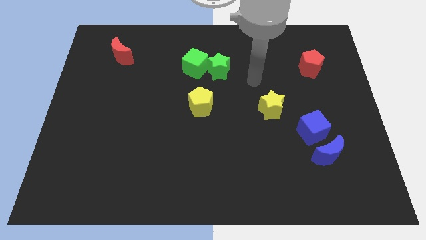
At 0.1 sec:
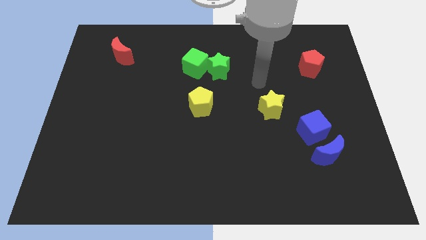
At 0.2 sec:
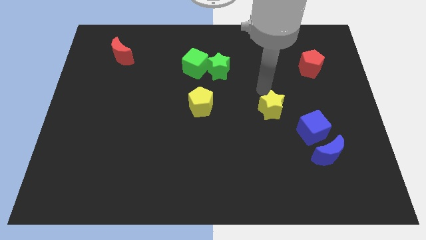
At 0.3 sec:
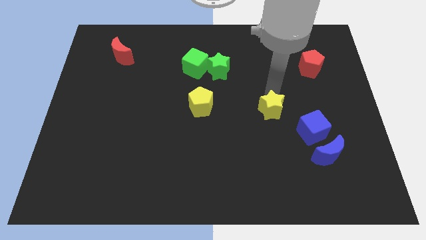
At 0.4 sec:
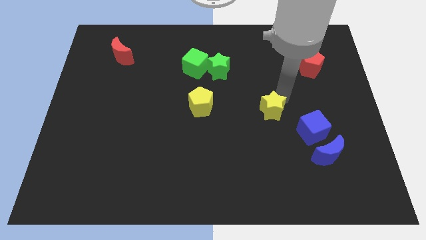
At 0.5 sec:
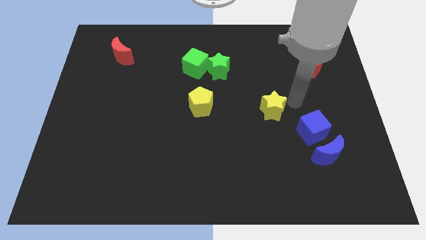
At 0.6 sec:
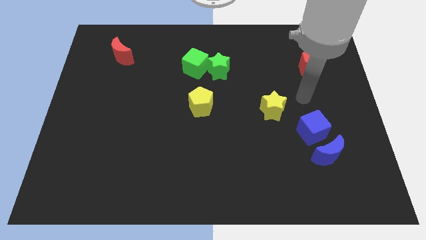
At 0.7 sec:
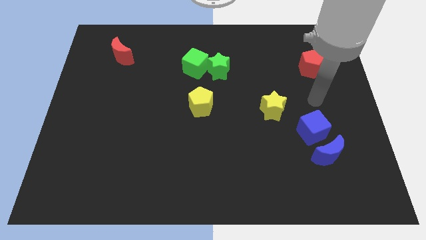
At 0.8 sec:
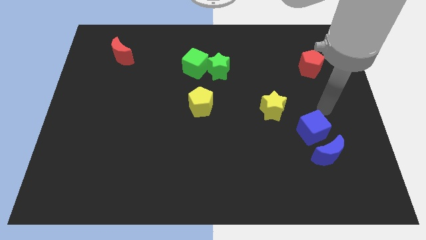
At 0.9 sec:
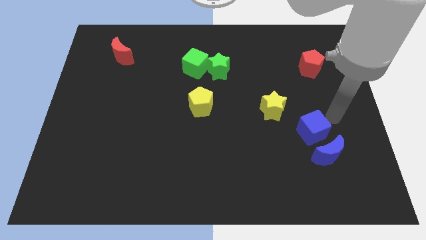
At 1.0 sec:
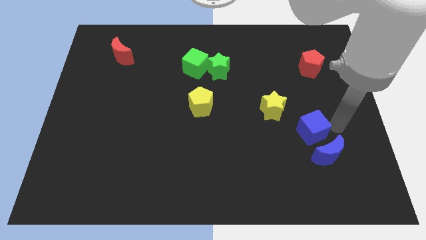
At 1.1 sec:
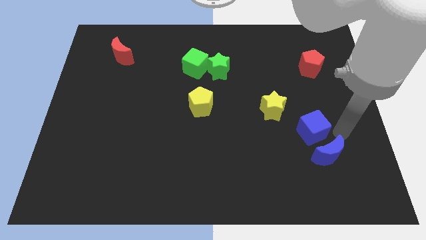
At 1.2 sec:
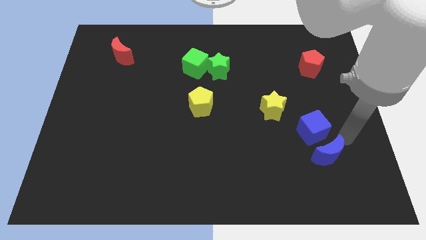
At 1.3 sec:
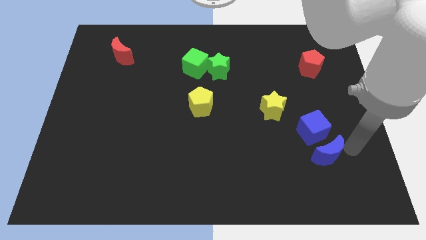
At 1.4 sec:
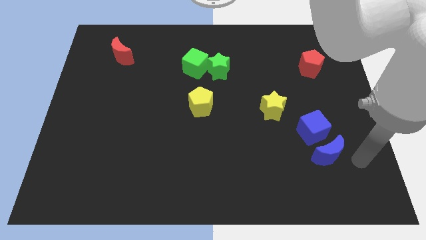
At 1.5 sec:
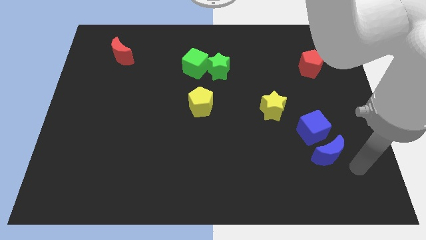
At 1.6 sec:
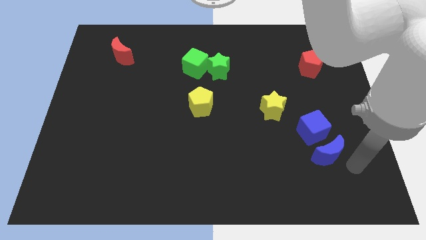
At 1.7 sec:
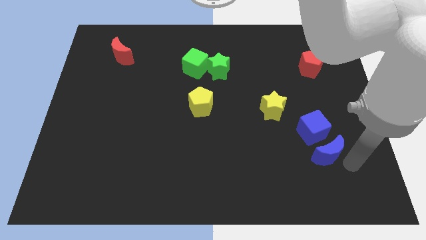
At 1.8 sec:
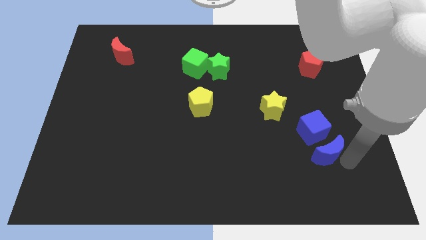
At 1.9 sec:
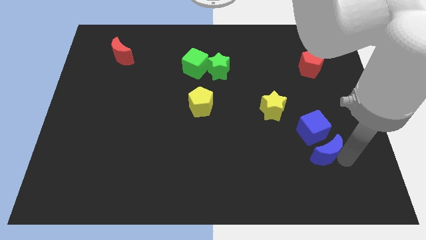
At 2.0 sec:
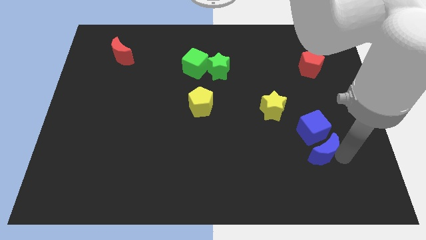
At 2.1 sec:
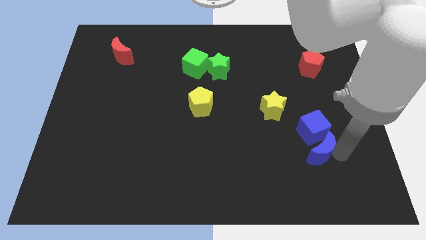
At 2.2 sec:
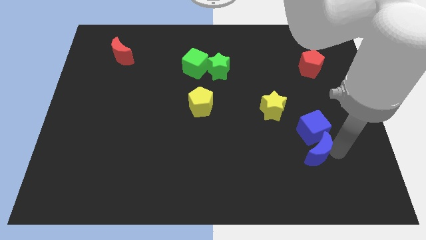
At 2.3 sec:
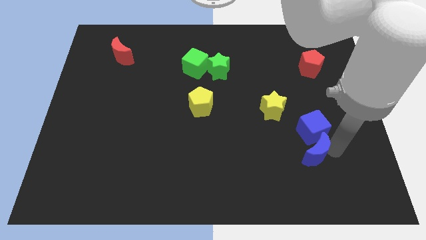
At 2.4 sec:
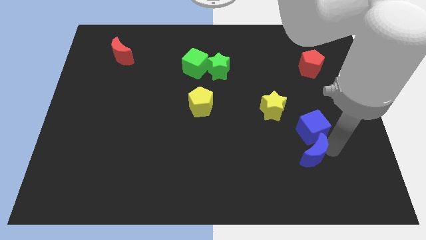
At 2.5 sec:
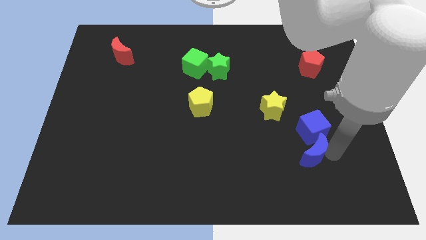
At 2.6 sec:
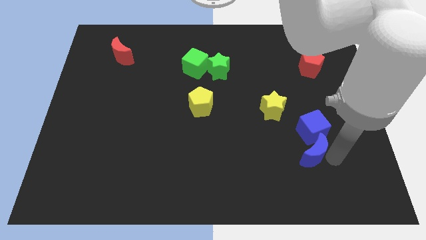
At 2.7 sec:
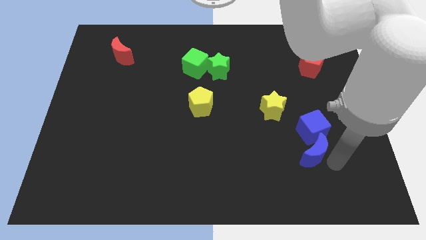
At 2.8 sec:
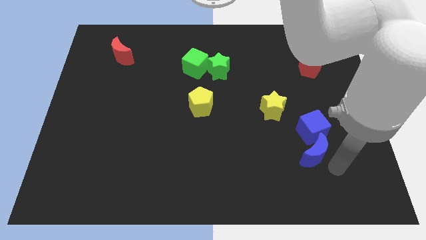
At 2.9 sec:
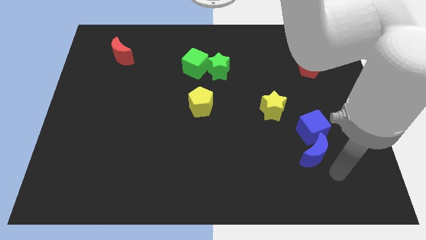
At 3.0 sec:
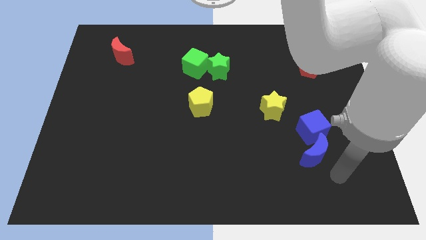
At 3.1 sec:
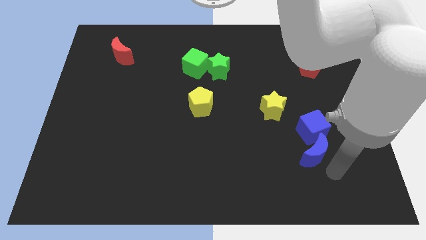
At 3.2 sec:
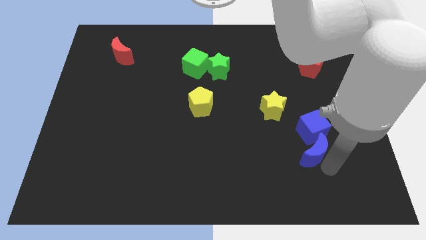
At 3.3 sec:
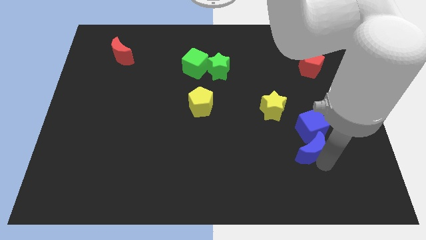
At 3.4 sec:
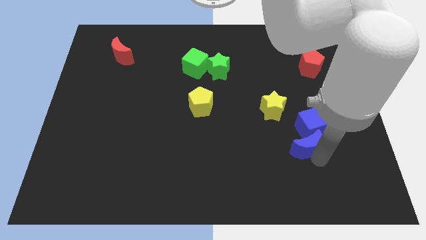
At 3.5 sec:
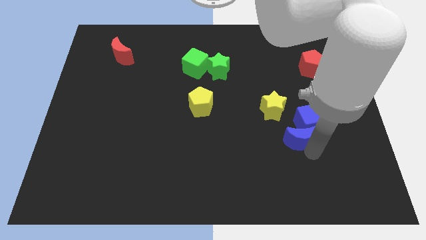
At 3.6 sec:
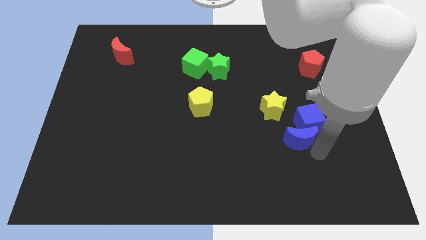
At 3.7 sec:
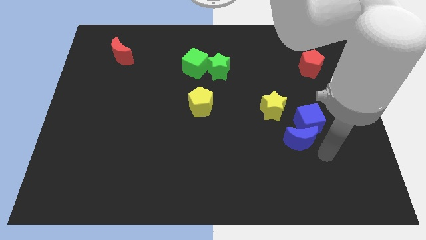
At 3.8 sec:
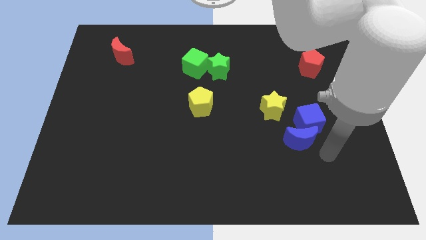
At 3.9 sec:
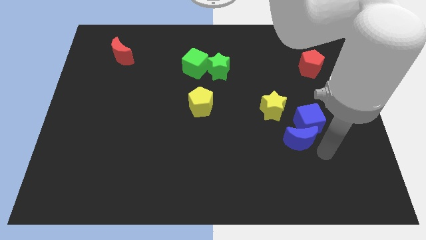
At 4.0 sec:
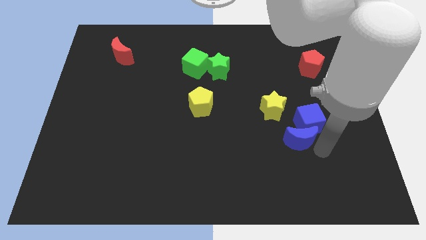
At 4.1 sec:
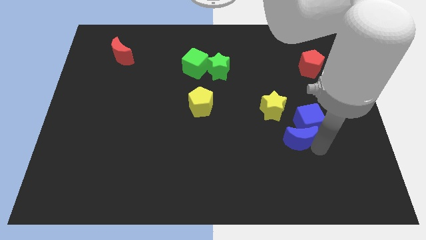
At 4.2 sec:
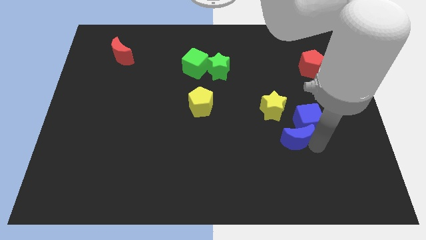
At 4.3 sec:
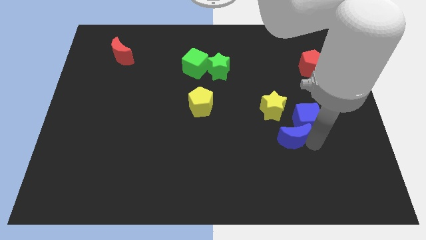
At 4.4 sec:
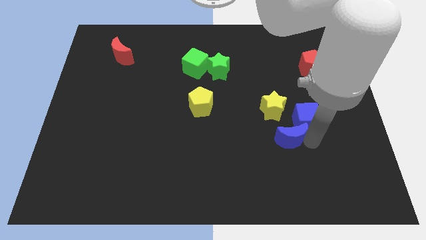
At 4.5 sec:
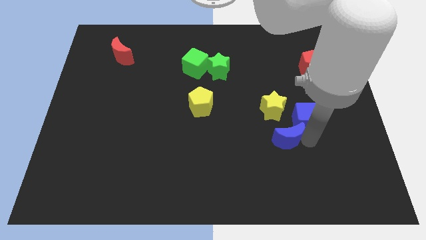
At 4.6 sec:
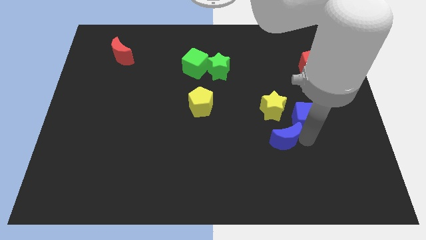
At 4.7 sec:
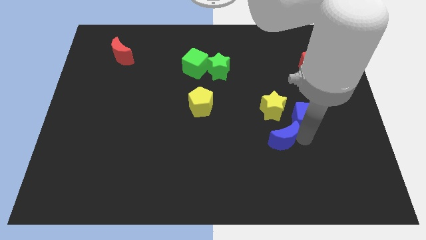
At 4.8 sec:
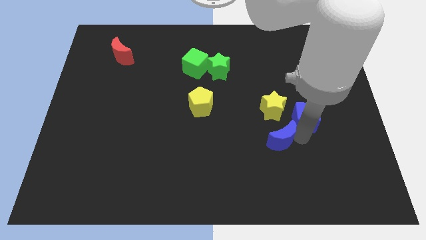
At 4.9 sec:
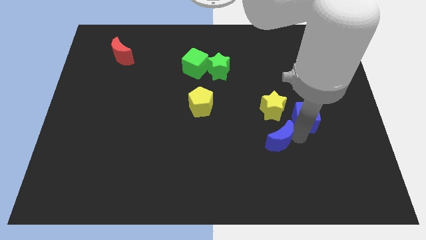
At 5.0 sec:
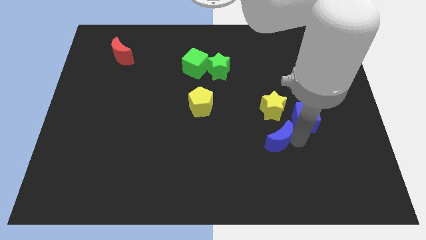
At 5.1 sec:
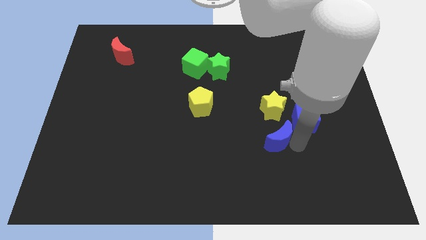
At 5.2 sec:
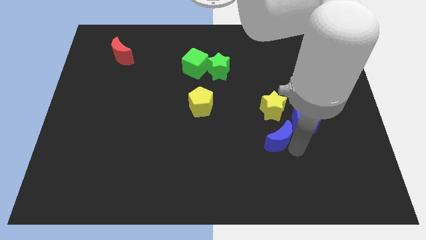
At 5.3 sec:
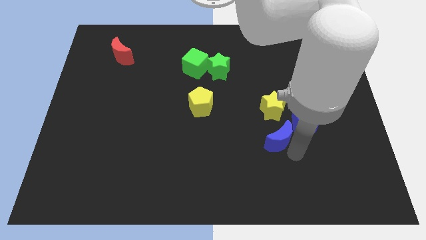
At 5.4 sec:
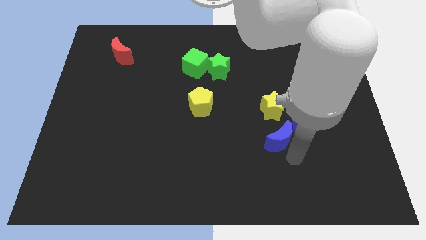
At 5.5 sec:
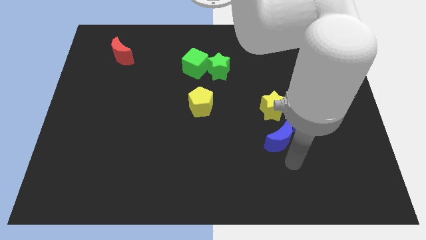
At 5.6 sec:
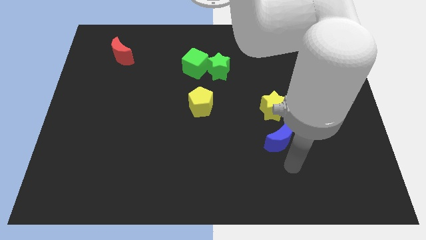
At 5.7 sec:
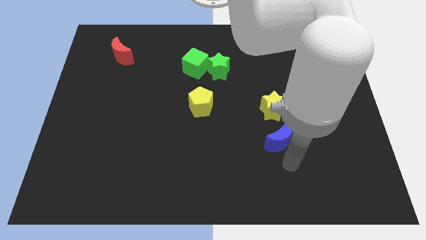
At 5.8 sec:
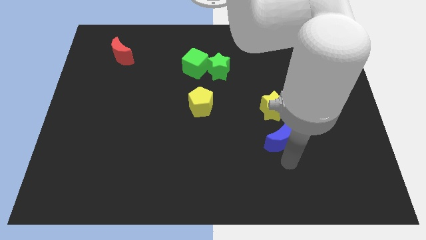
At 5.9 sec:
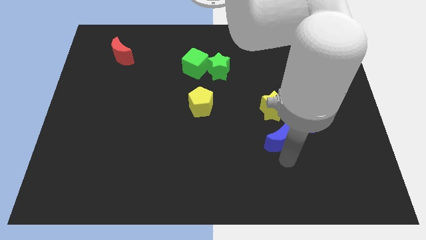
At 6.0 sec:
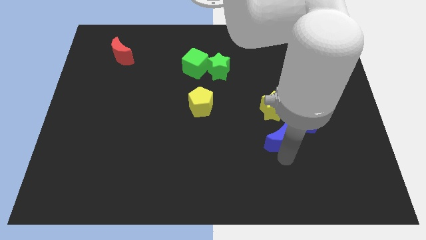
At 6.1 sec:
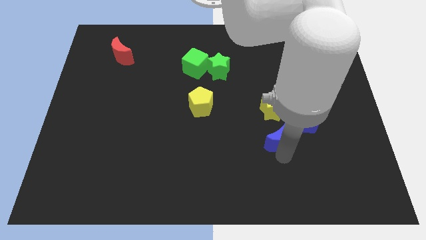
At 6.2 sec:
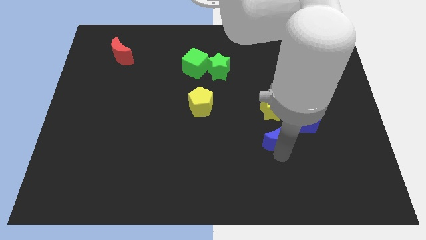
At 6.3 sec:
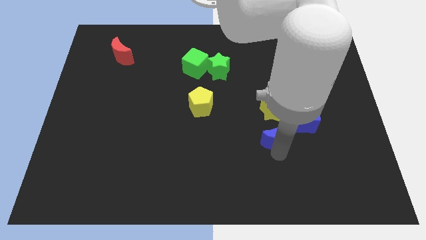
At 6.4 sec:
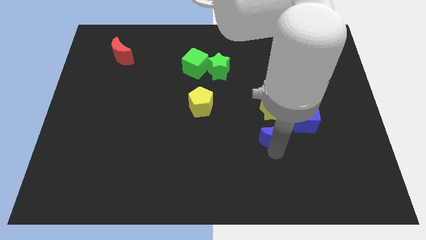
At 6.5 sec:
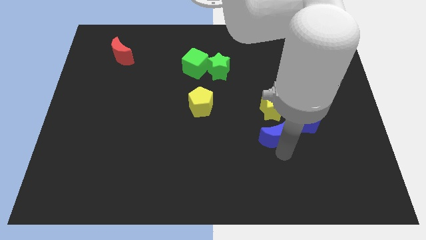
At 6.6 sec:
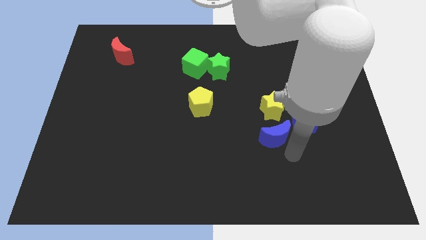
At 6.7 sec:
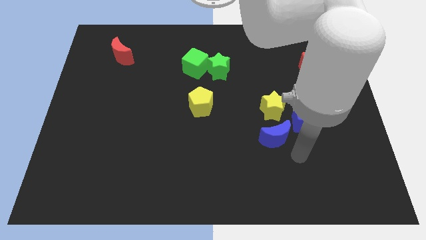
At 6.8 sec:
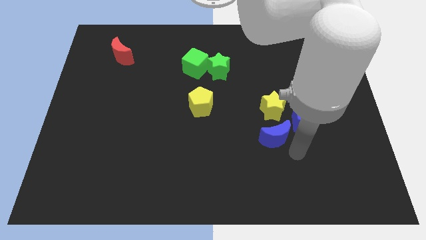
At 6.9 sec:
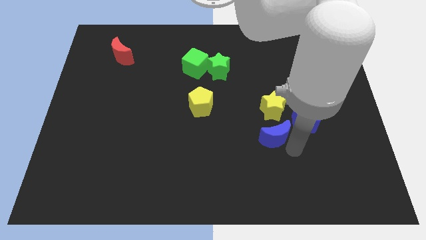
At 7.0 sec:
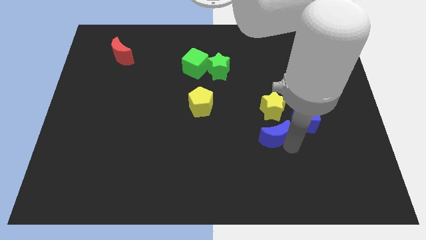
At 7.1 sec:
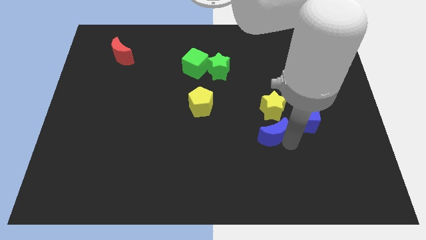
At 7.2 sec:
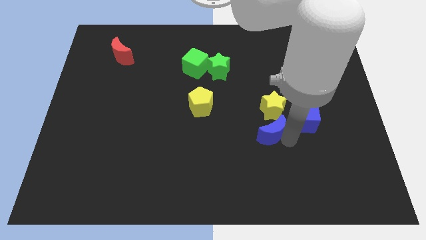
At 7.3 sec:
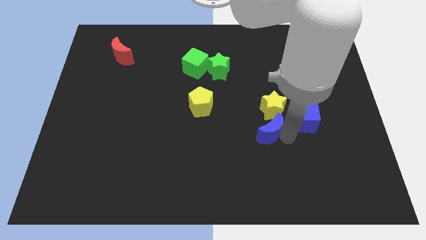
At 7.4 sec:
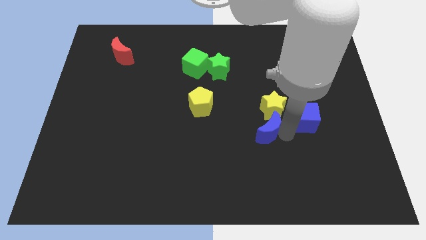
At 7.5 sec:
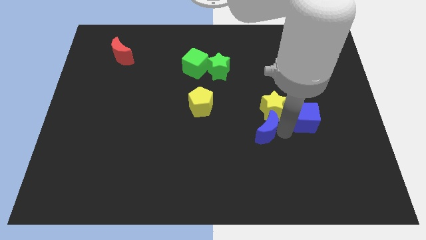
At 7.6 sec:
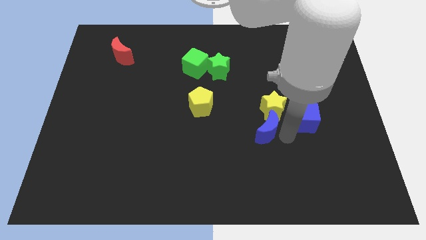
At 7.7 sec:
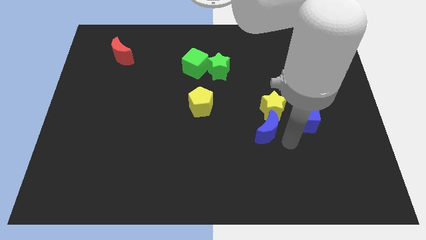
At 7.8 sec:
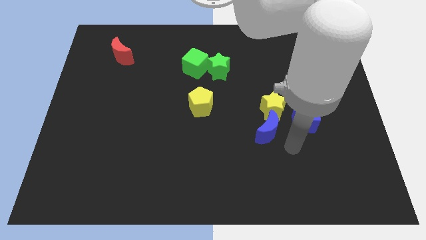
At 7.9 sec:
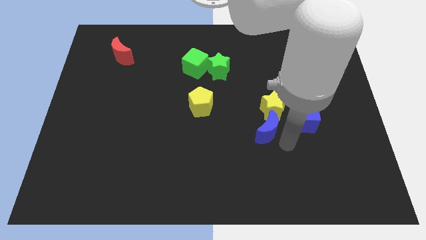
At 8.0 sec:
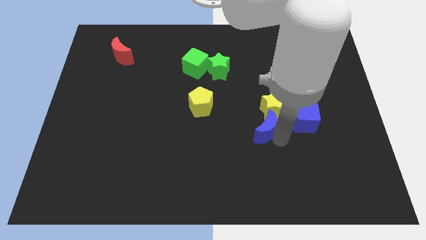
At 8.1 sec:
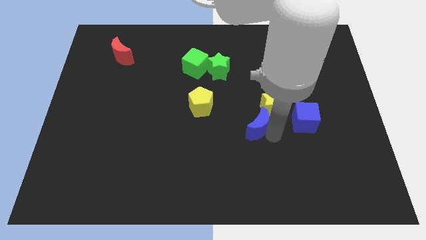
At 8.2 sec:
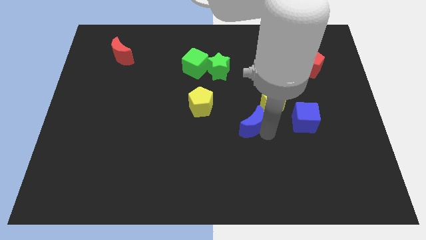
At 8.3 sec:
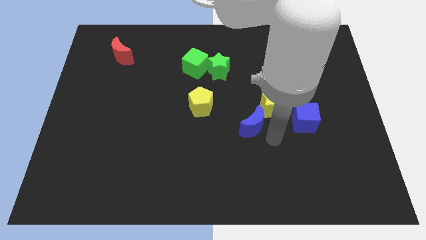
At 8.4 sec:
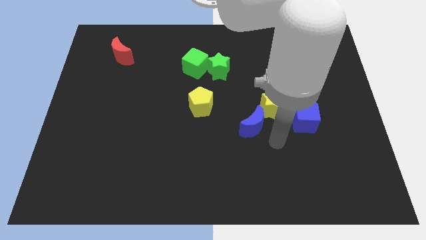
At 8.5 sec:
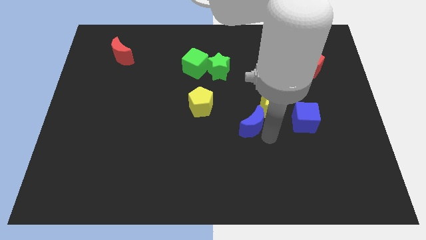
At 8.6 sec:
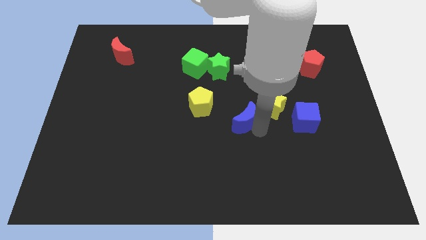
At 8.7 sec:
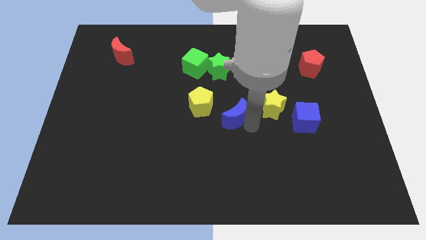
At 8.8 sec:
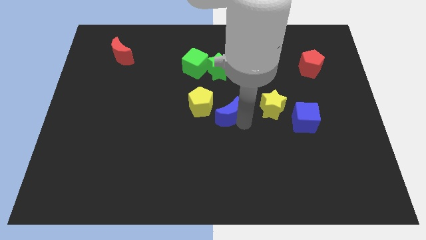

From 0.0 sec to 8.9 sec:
slide the blue moon to the bottom side of the green star
